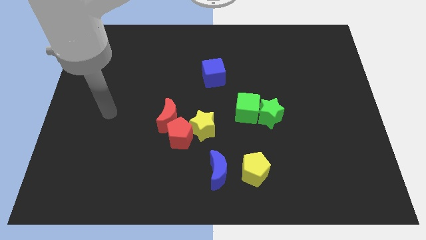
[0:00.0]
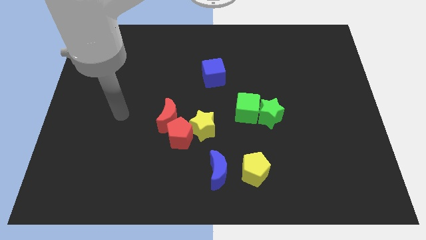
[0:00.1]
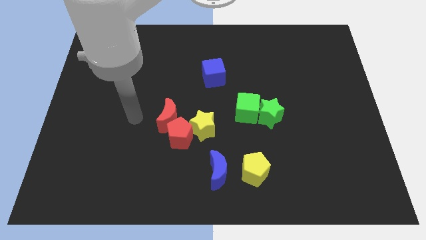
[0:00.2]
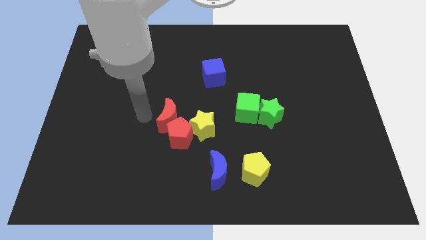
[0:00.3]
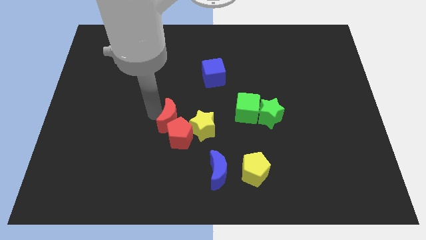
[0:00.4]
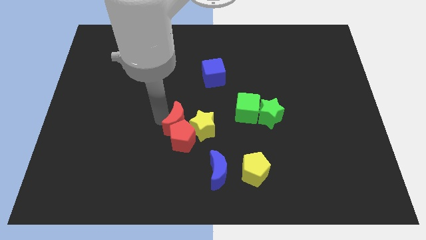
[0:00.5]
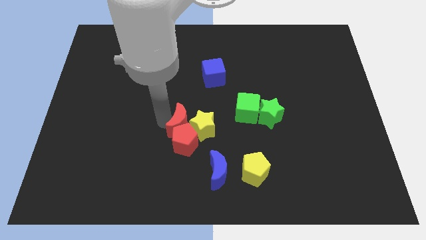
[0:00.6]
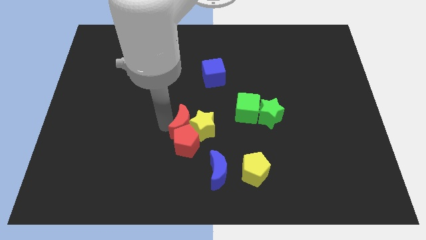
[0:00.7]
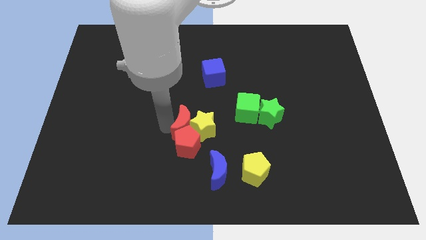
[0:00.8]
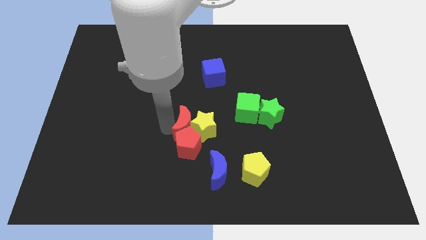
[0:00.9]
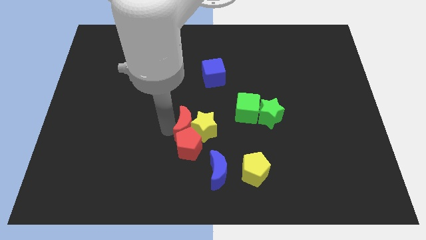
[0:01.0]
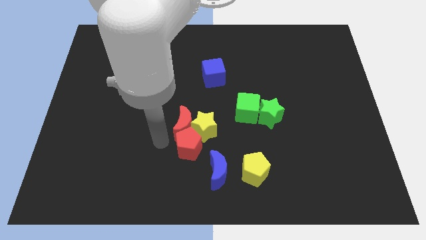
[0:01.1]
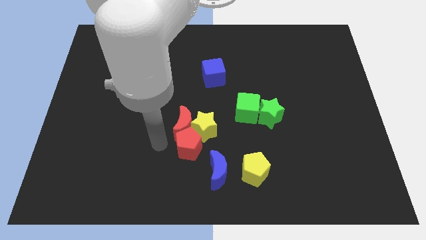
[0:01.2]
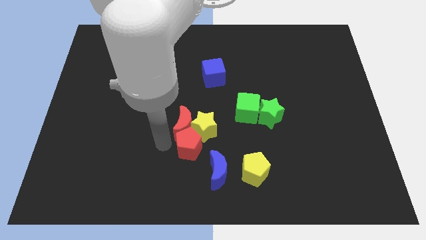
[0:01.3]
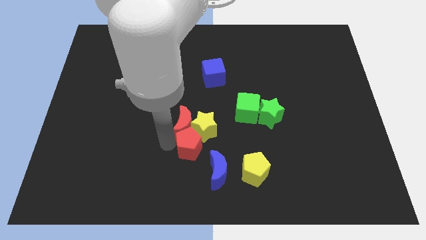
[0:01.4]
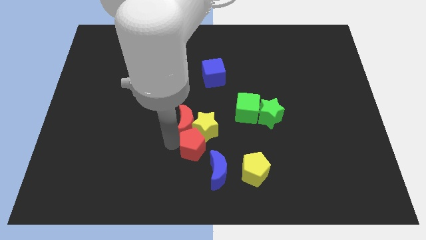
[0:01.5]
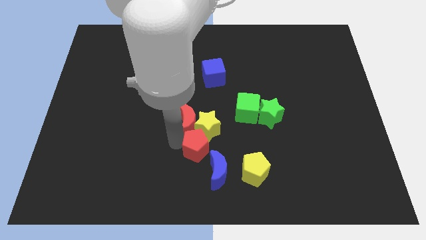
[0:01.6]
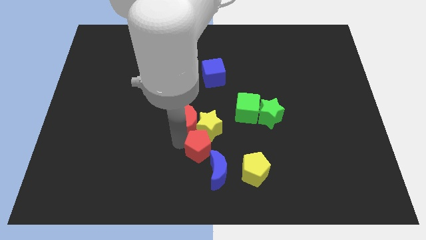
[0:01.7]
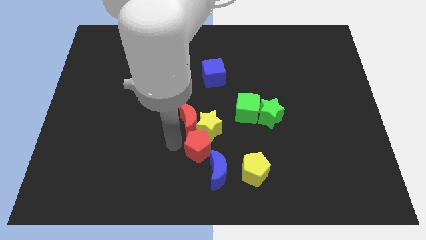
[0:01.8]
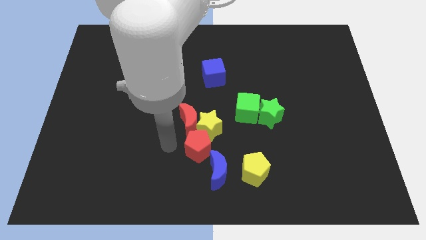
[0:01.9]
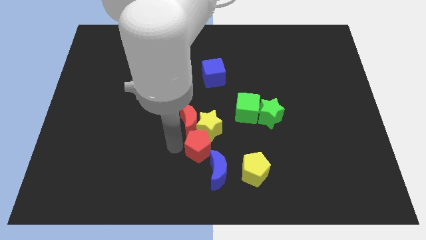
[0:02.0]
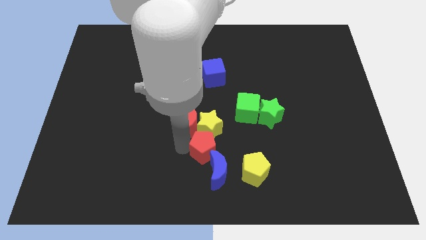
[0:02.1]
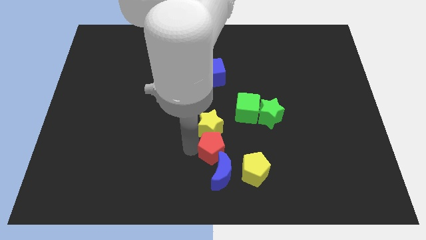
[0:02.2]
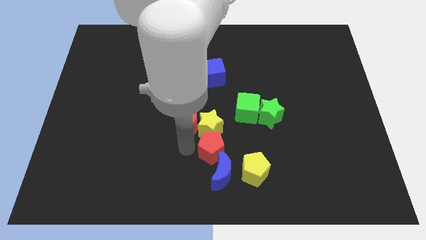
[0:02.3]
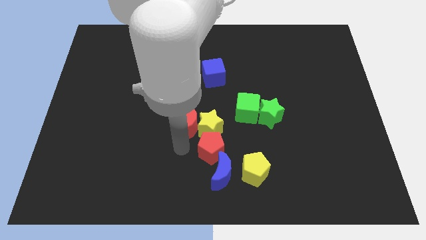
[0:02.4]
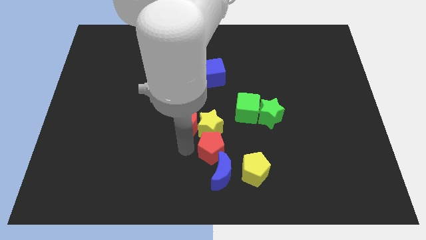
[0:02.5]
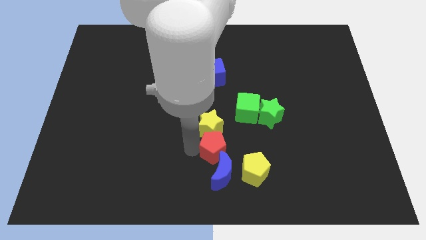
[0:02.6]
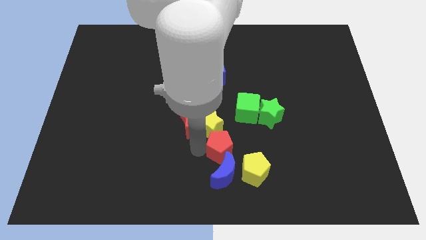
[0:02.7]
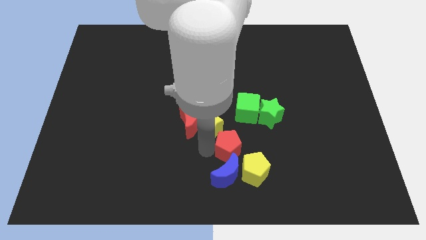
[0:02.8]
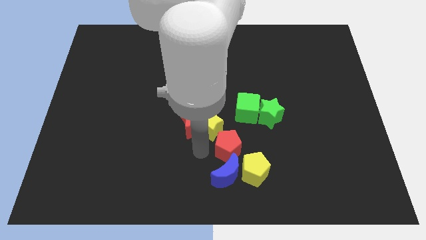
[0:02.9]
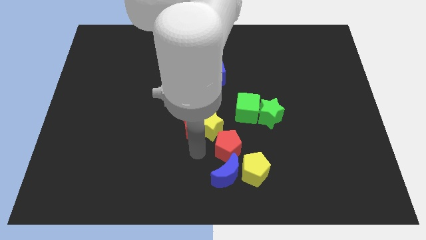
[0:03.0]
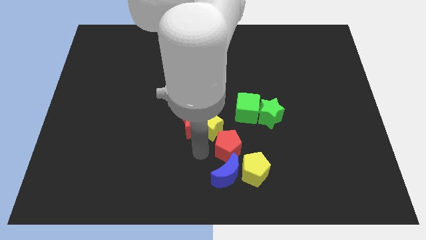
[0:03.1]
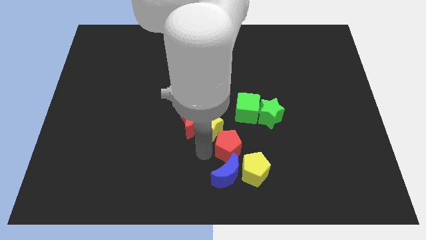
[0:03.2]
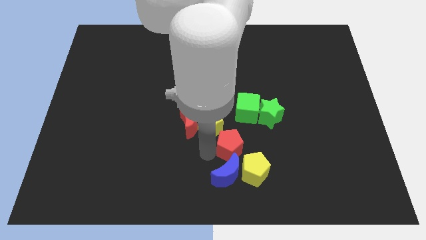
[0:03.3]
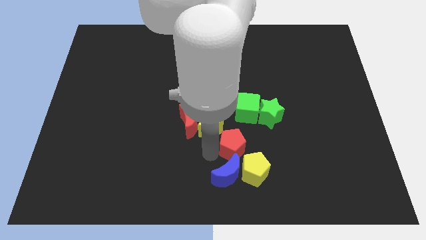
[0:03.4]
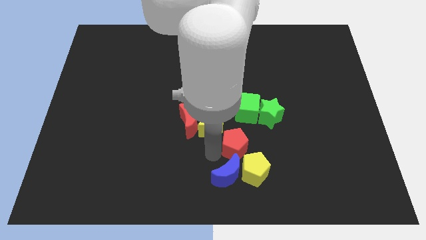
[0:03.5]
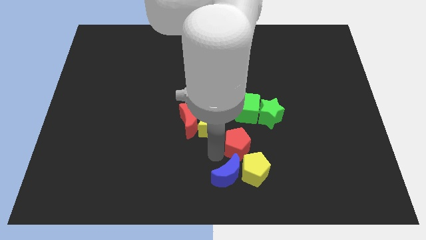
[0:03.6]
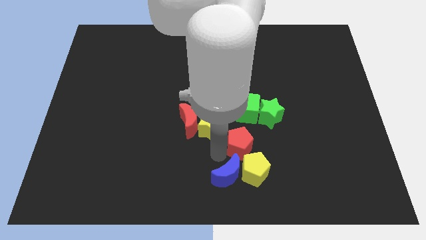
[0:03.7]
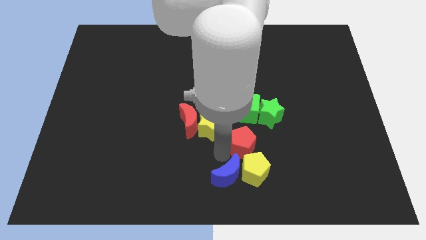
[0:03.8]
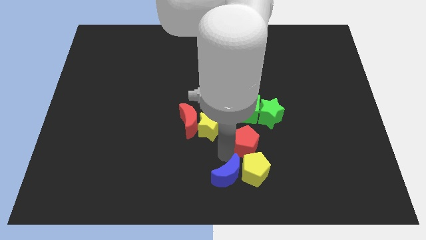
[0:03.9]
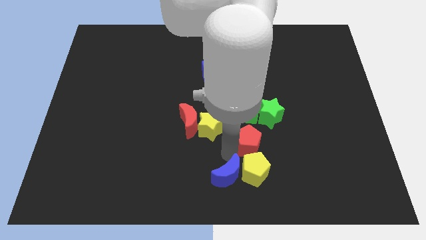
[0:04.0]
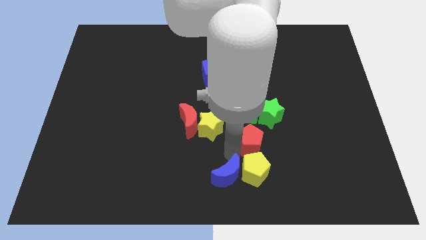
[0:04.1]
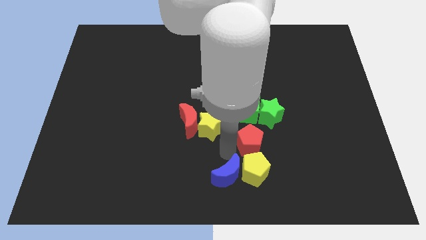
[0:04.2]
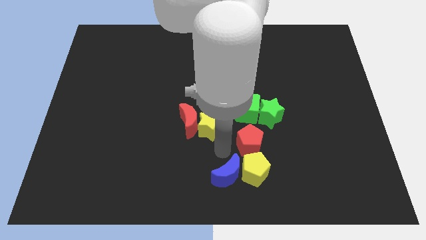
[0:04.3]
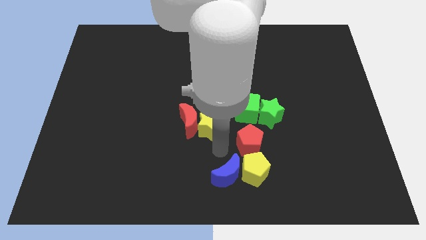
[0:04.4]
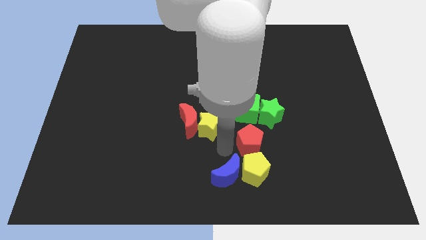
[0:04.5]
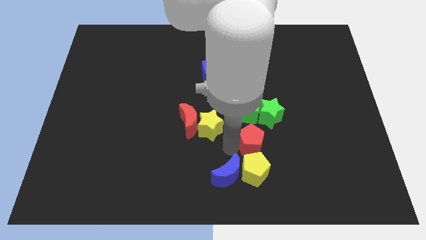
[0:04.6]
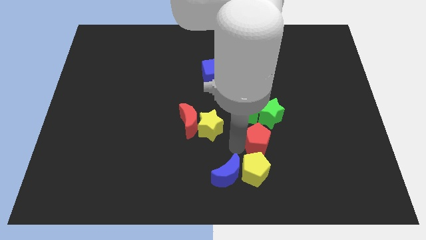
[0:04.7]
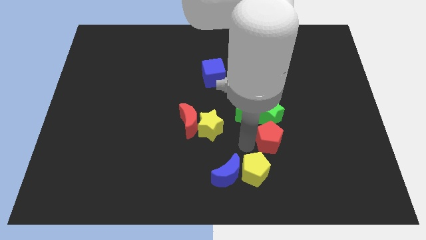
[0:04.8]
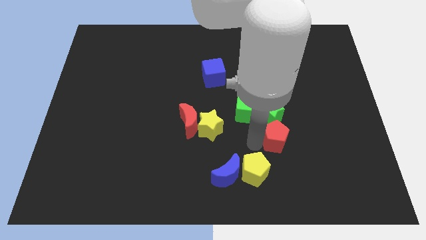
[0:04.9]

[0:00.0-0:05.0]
slide the red pentagon right

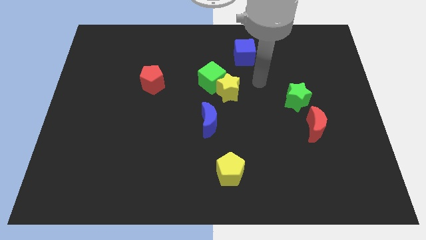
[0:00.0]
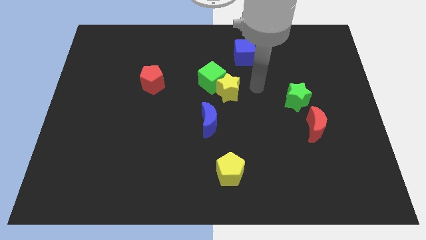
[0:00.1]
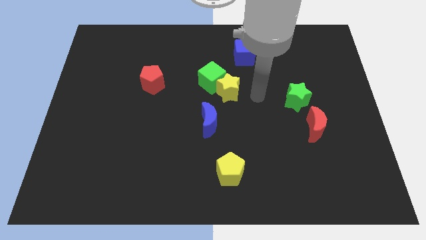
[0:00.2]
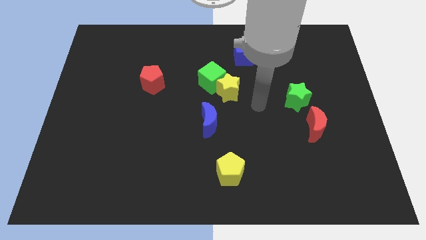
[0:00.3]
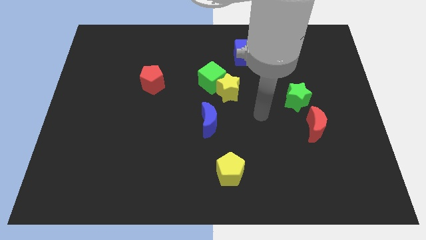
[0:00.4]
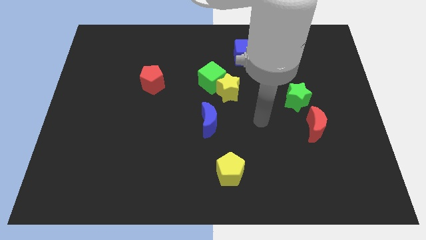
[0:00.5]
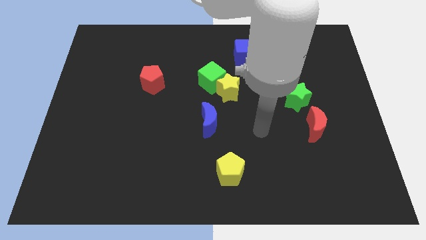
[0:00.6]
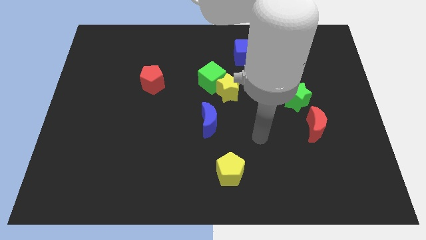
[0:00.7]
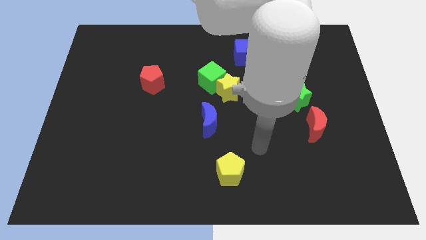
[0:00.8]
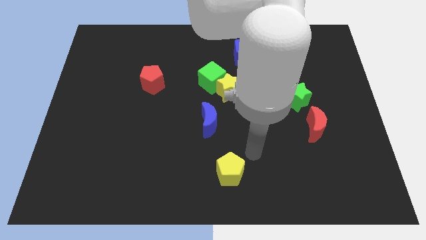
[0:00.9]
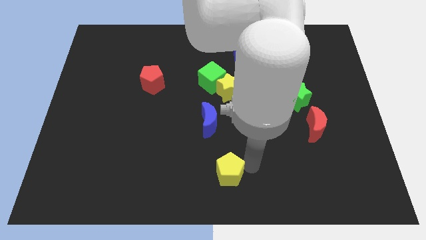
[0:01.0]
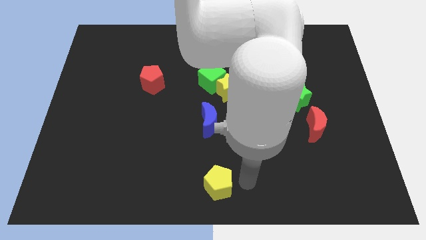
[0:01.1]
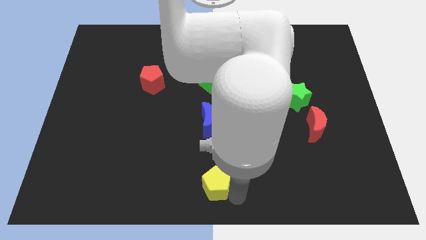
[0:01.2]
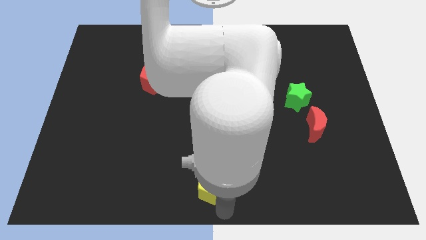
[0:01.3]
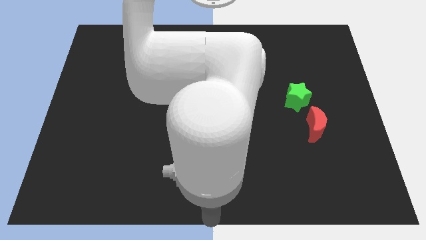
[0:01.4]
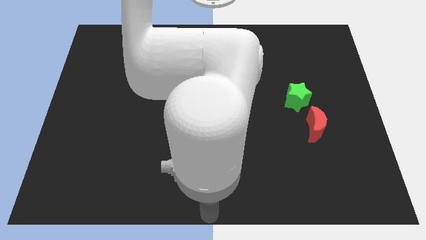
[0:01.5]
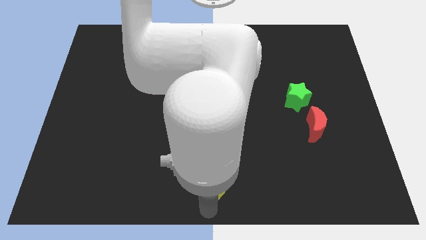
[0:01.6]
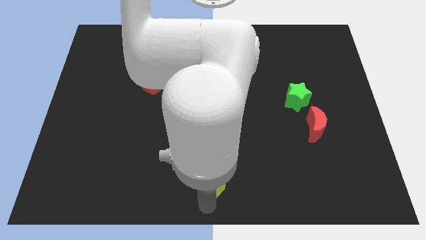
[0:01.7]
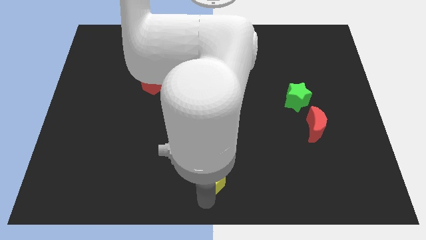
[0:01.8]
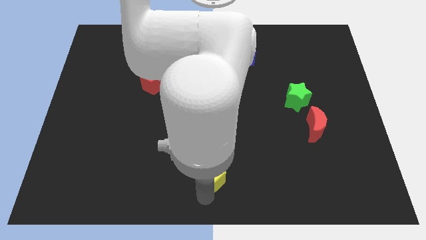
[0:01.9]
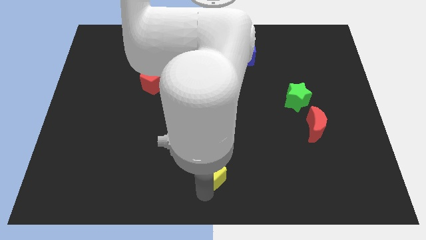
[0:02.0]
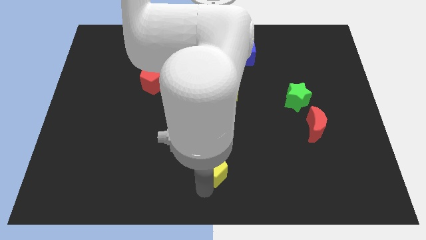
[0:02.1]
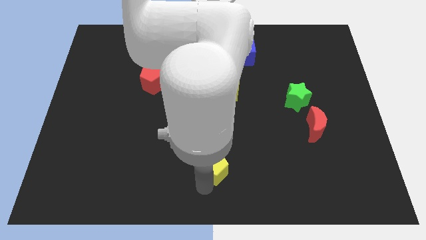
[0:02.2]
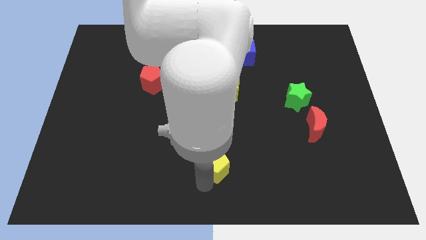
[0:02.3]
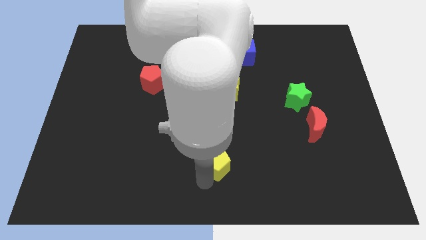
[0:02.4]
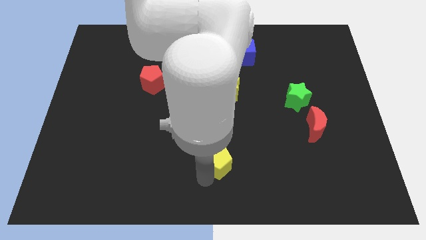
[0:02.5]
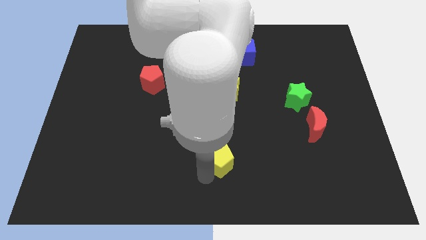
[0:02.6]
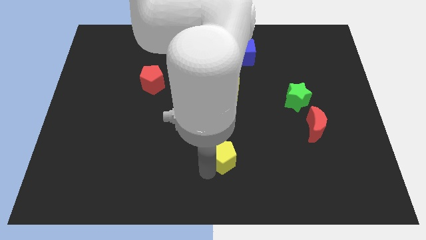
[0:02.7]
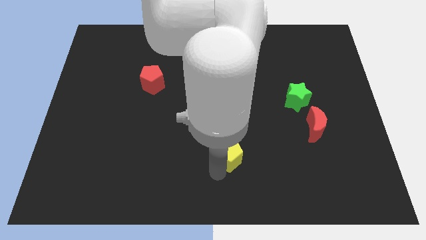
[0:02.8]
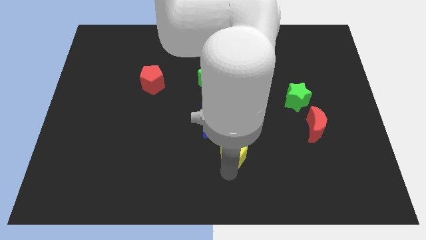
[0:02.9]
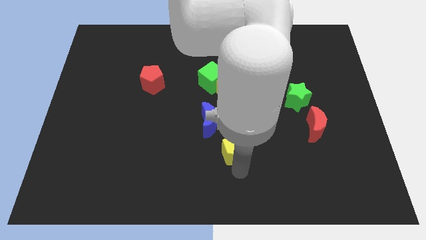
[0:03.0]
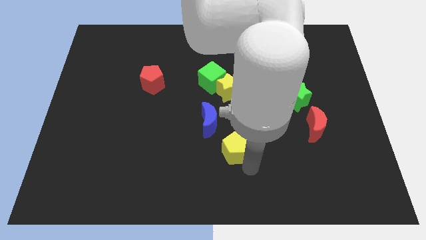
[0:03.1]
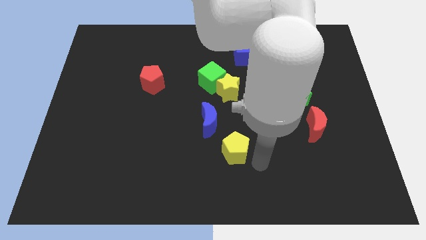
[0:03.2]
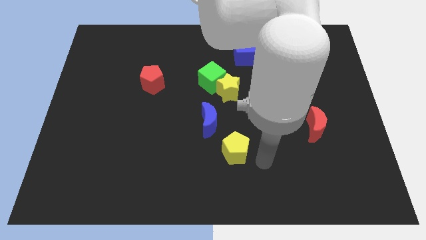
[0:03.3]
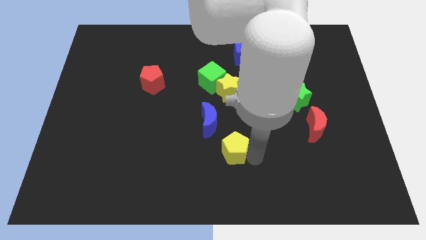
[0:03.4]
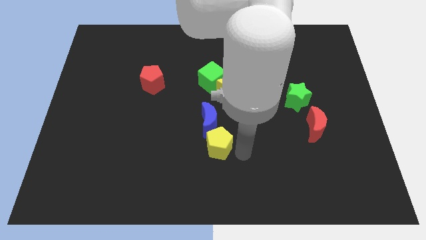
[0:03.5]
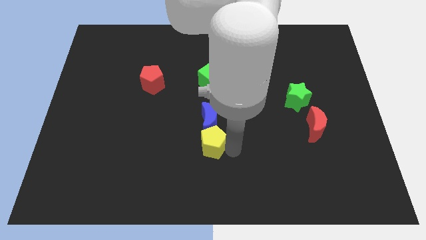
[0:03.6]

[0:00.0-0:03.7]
push the yellow pentagon upwards and to the left diagonally somewhat
